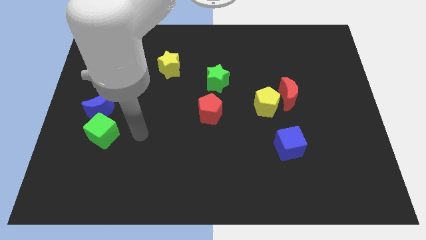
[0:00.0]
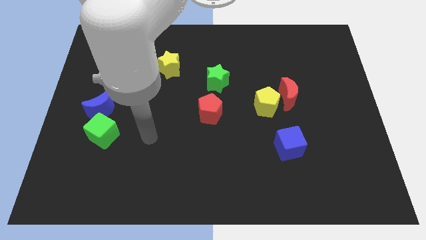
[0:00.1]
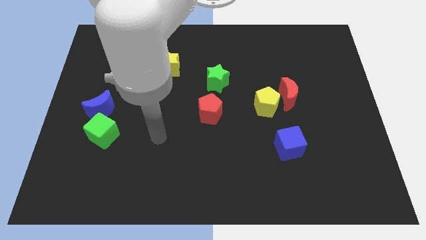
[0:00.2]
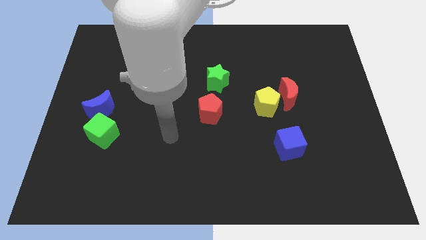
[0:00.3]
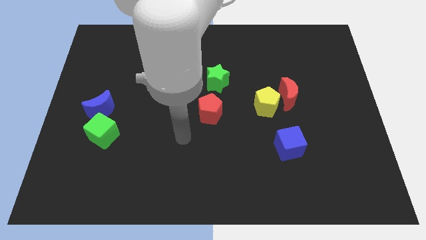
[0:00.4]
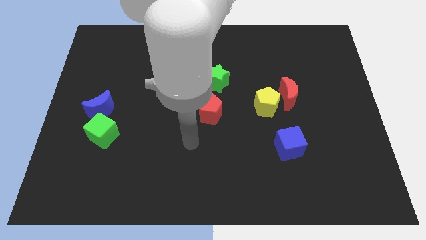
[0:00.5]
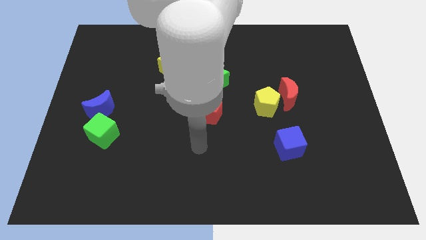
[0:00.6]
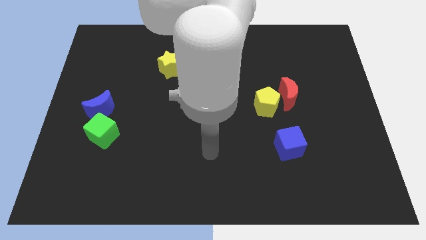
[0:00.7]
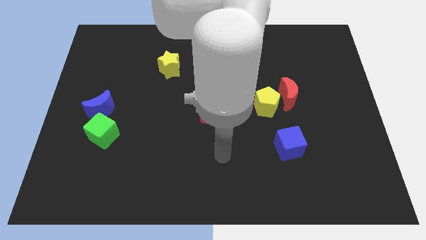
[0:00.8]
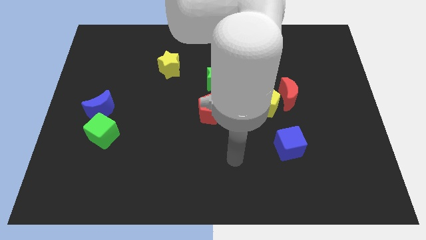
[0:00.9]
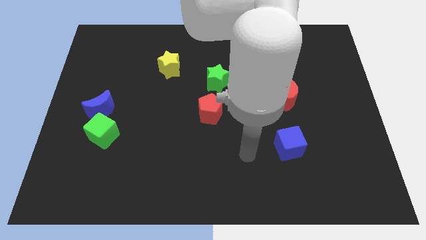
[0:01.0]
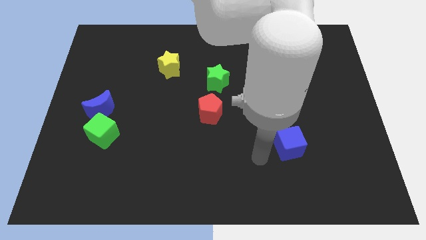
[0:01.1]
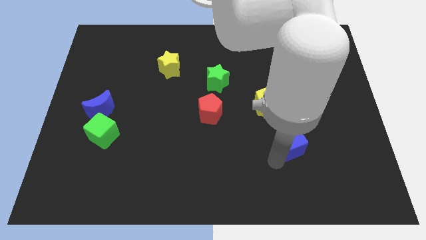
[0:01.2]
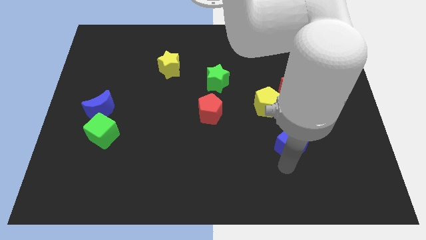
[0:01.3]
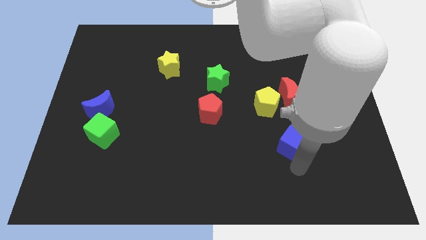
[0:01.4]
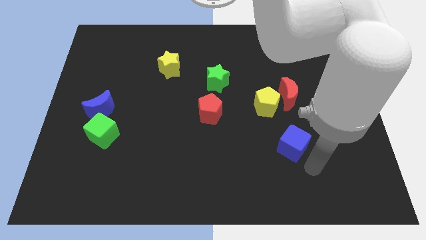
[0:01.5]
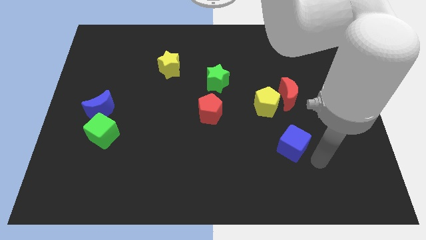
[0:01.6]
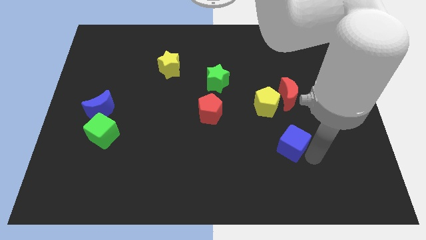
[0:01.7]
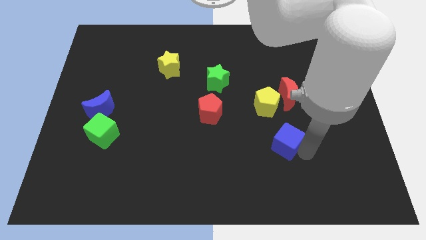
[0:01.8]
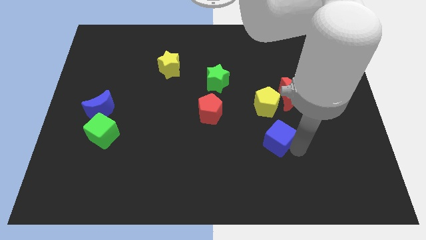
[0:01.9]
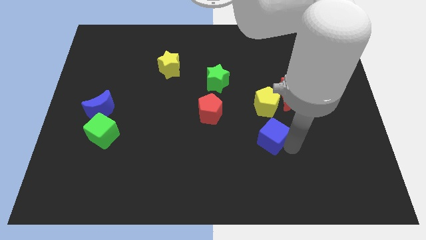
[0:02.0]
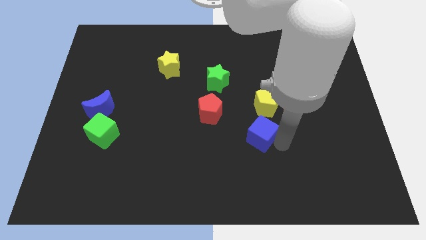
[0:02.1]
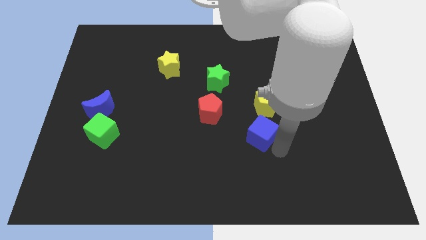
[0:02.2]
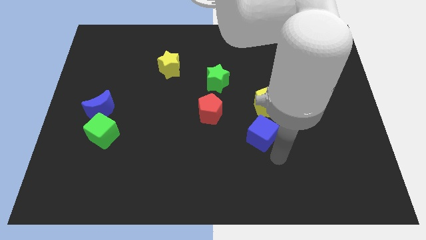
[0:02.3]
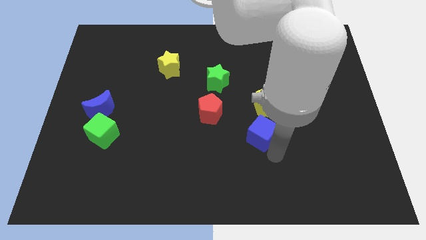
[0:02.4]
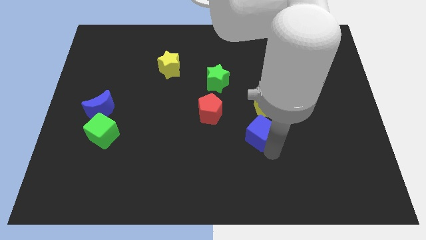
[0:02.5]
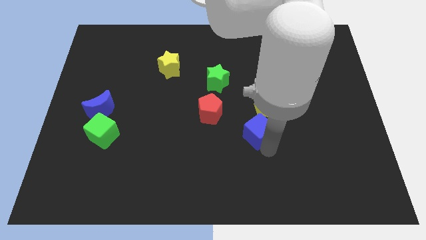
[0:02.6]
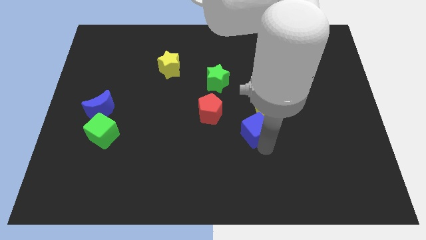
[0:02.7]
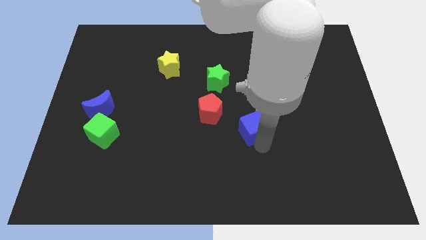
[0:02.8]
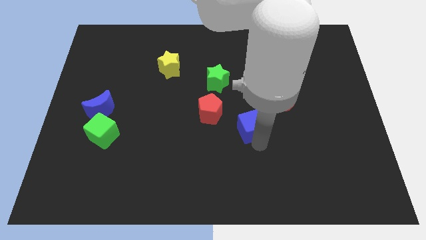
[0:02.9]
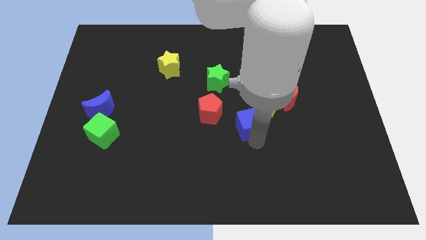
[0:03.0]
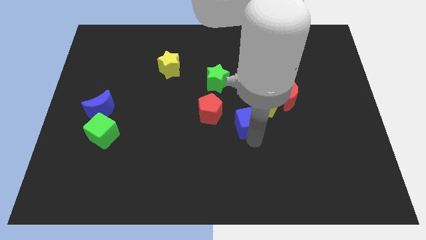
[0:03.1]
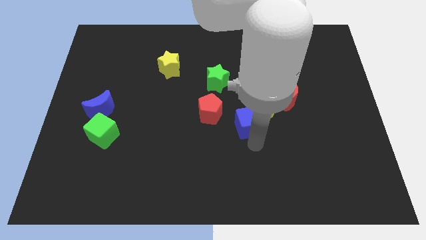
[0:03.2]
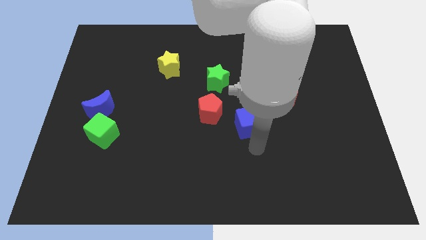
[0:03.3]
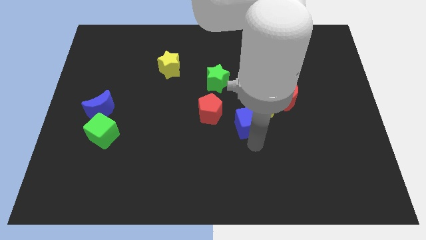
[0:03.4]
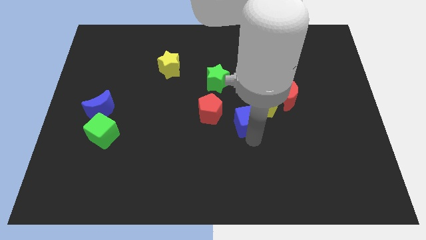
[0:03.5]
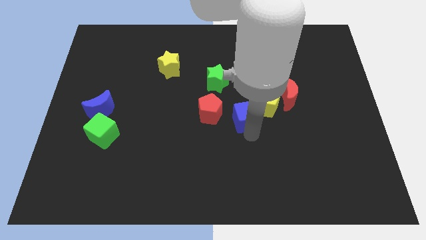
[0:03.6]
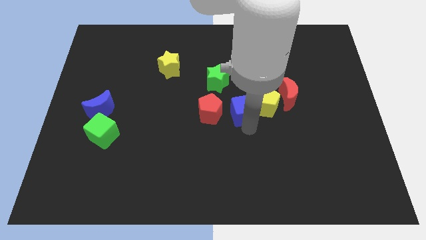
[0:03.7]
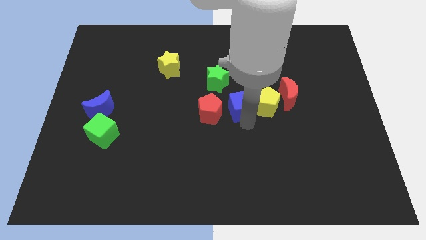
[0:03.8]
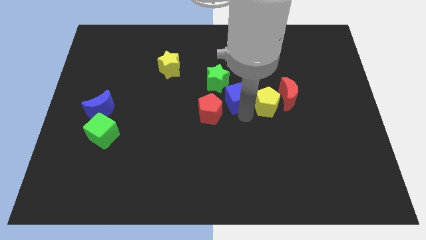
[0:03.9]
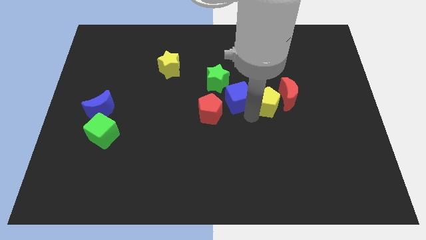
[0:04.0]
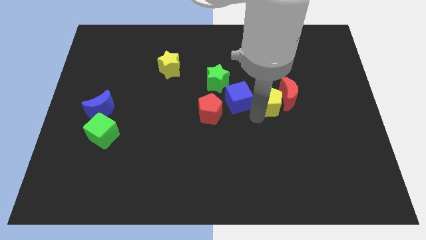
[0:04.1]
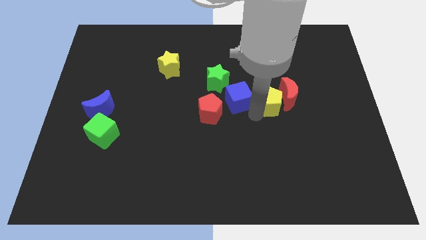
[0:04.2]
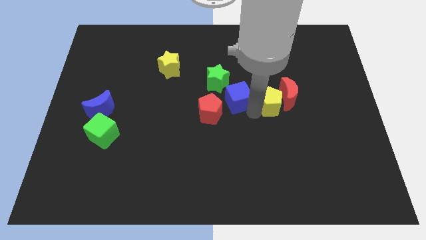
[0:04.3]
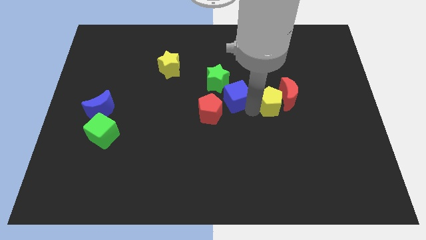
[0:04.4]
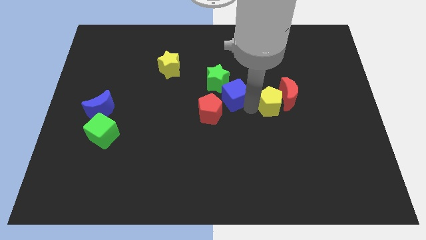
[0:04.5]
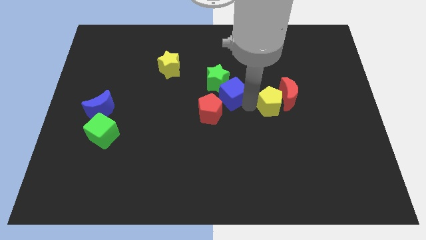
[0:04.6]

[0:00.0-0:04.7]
move the blue cube towards the green star

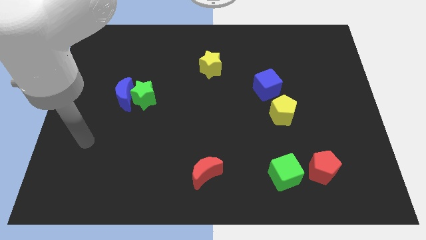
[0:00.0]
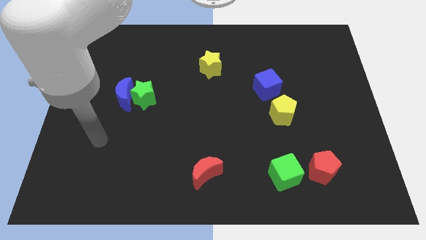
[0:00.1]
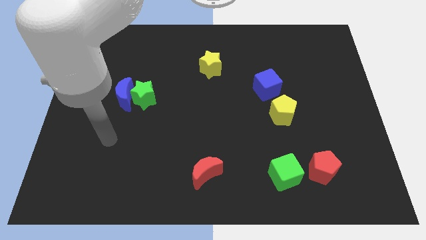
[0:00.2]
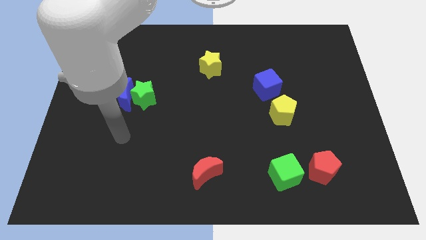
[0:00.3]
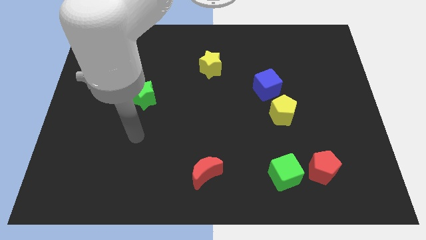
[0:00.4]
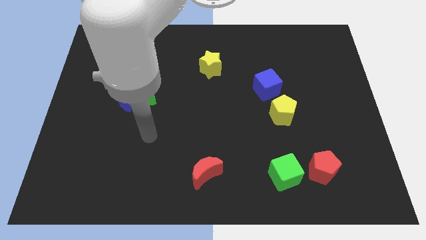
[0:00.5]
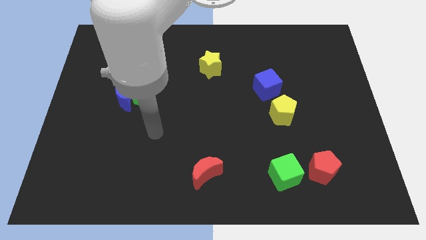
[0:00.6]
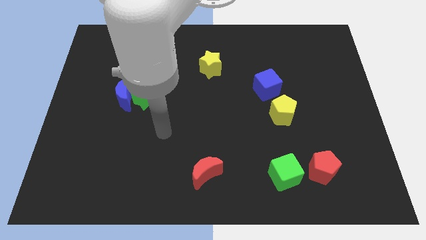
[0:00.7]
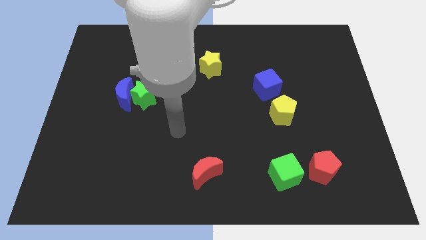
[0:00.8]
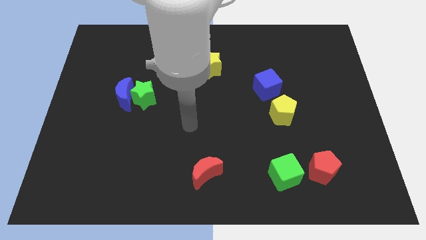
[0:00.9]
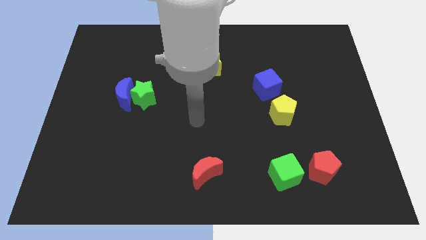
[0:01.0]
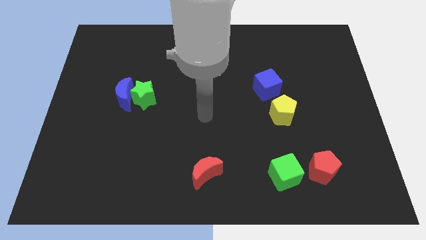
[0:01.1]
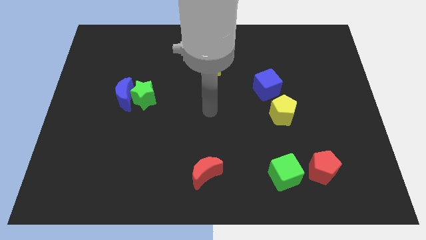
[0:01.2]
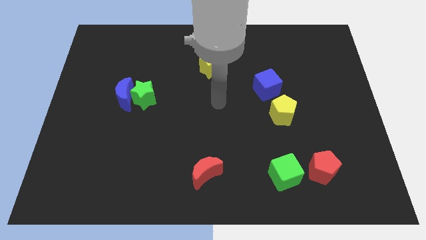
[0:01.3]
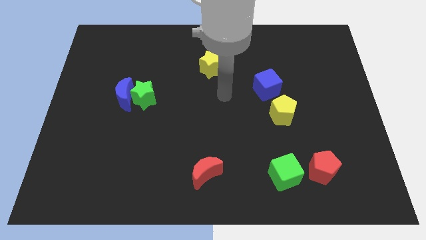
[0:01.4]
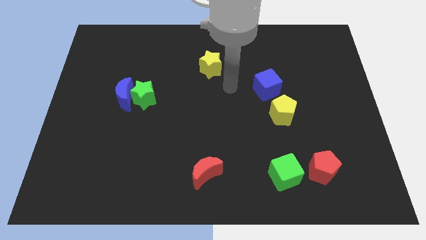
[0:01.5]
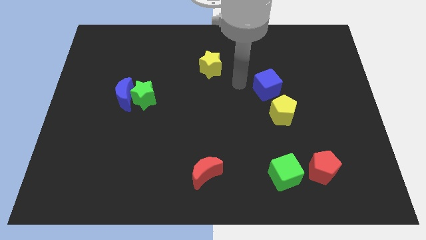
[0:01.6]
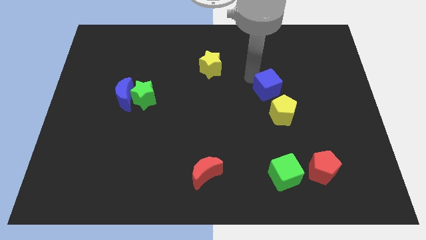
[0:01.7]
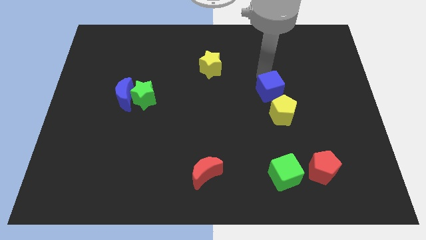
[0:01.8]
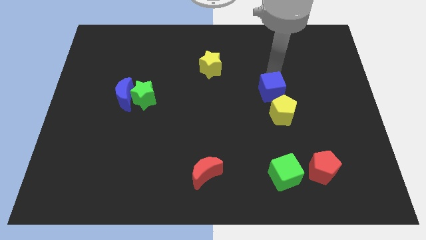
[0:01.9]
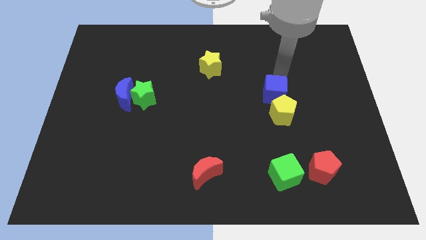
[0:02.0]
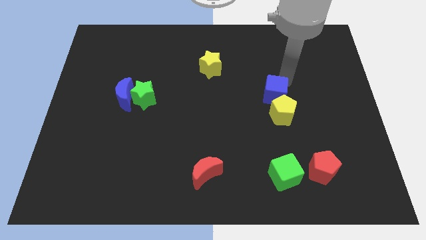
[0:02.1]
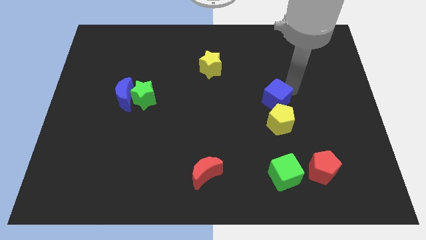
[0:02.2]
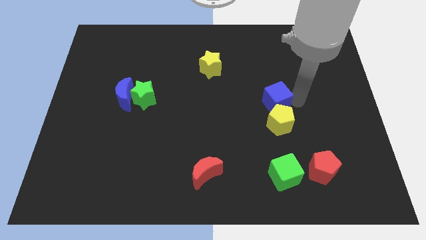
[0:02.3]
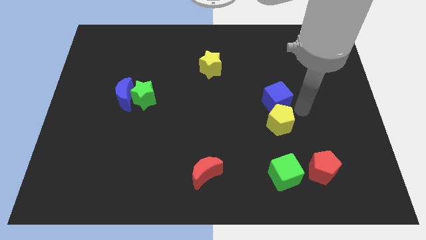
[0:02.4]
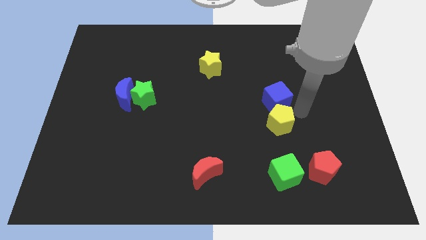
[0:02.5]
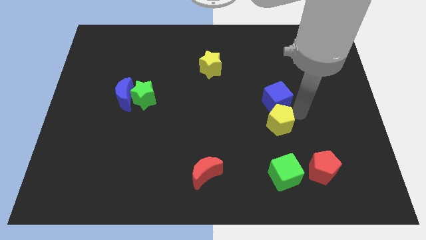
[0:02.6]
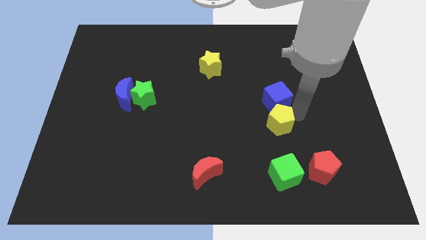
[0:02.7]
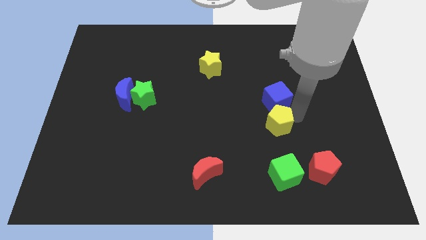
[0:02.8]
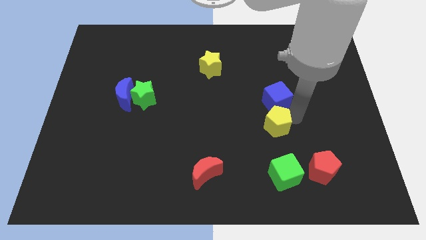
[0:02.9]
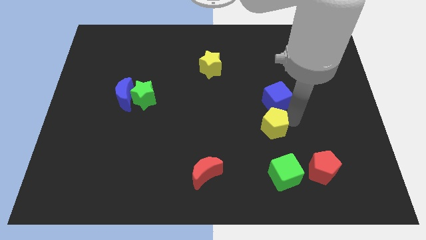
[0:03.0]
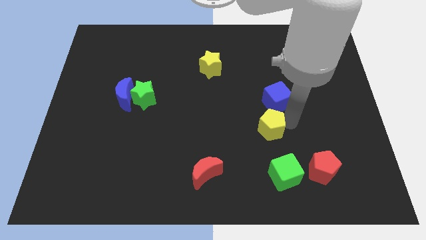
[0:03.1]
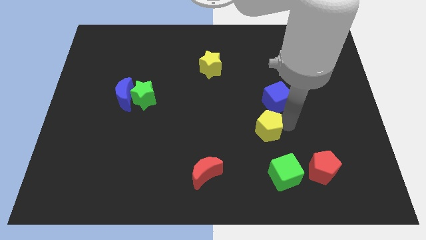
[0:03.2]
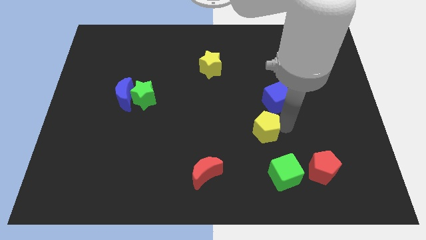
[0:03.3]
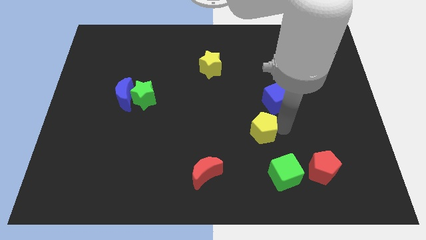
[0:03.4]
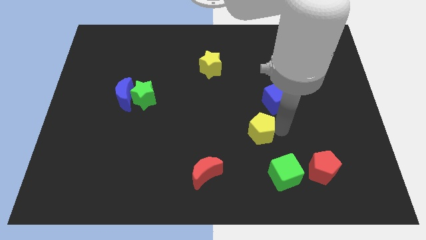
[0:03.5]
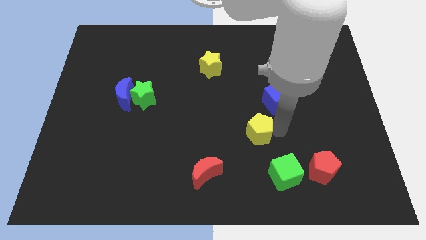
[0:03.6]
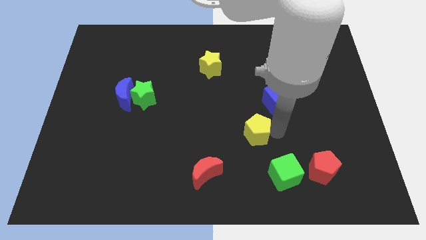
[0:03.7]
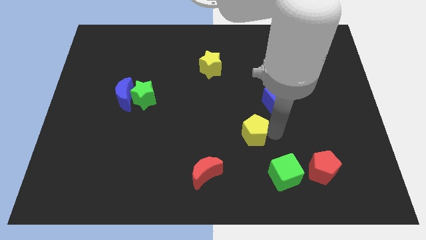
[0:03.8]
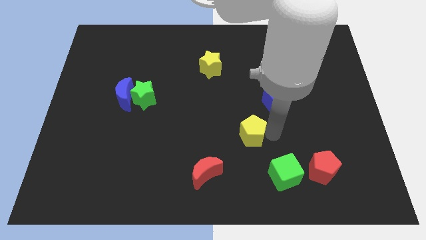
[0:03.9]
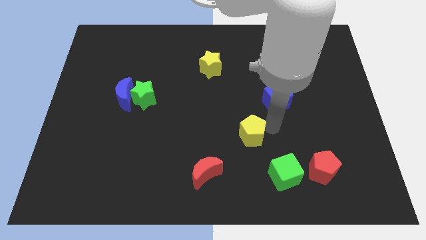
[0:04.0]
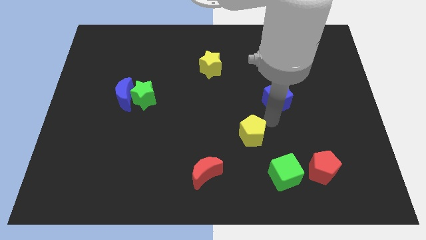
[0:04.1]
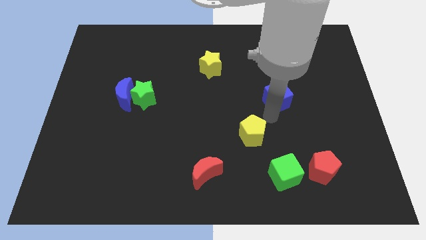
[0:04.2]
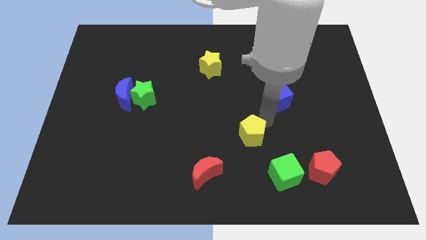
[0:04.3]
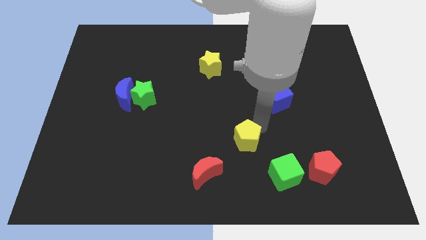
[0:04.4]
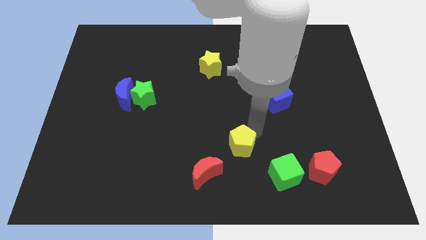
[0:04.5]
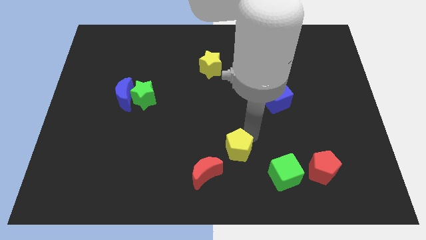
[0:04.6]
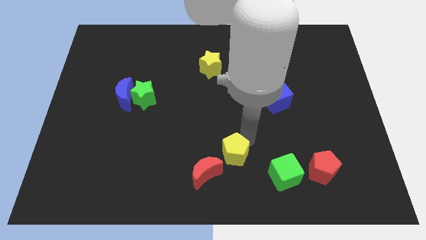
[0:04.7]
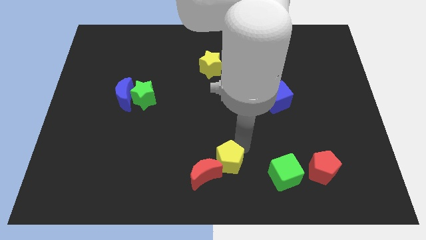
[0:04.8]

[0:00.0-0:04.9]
push the yellow pentagon close to the red moon
